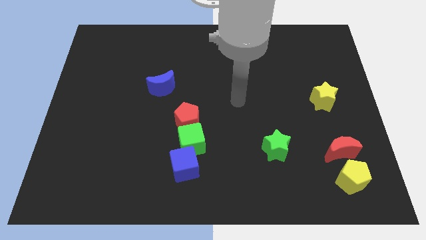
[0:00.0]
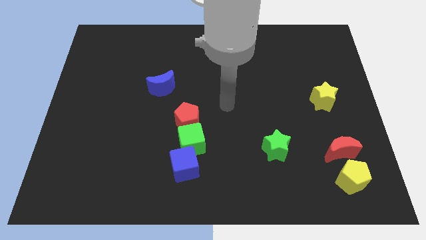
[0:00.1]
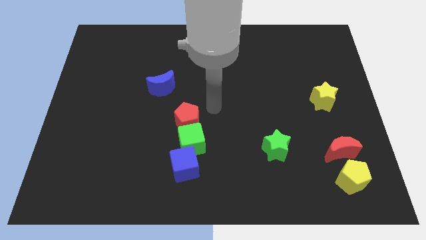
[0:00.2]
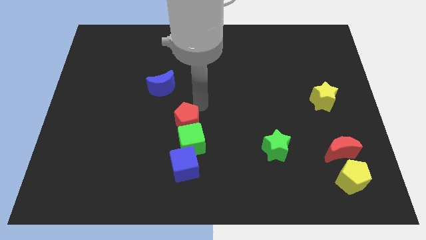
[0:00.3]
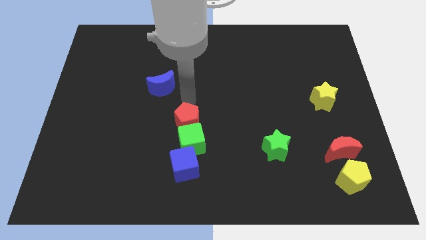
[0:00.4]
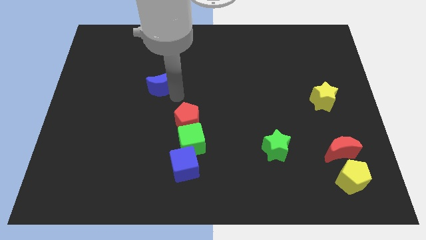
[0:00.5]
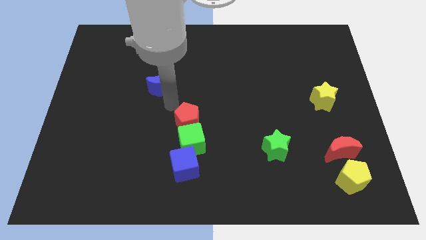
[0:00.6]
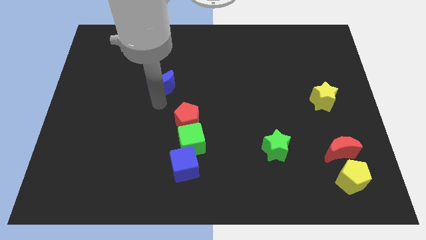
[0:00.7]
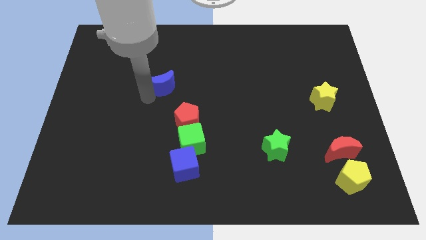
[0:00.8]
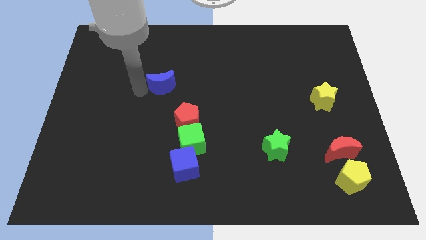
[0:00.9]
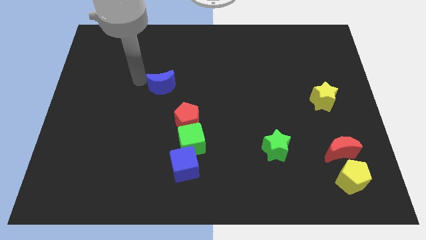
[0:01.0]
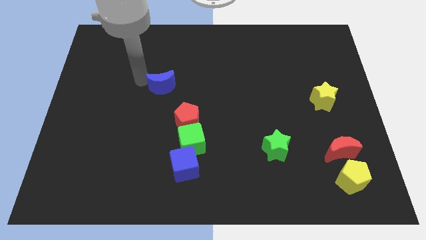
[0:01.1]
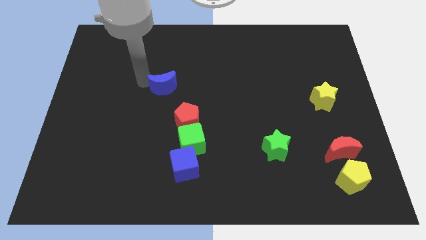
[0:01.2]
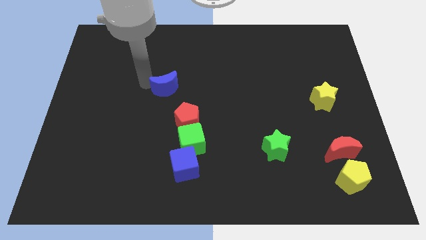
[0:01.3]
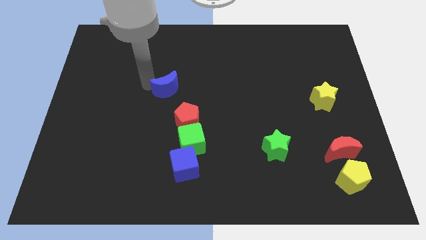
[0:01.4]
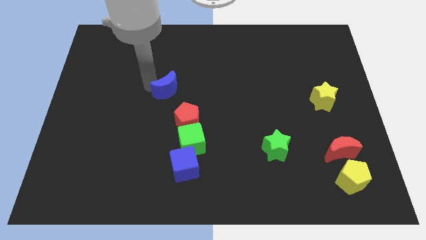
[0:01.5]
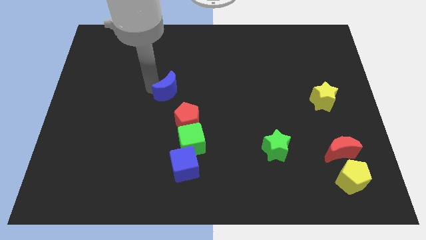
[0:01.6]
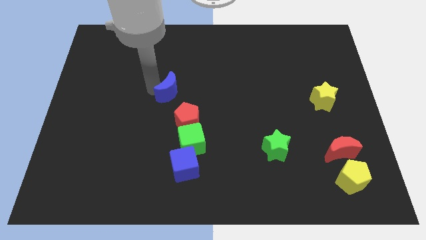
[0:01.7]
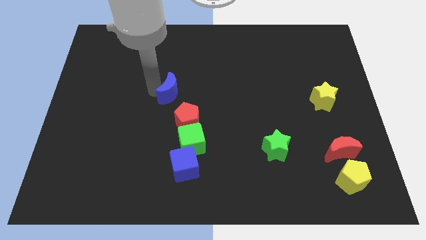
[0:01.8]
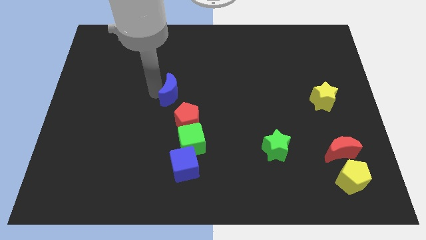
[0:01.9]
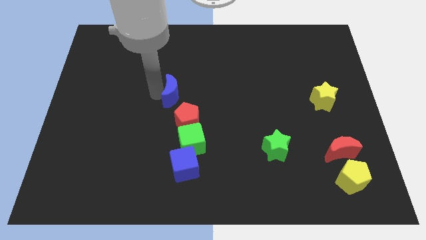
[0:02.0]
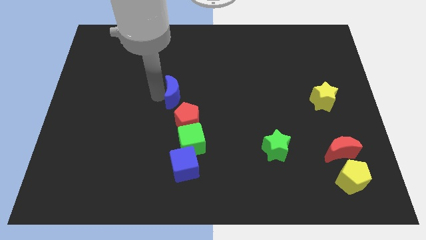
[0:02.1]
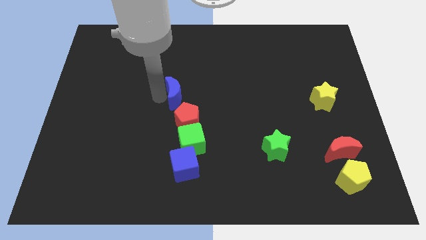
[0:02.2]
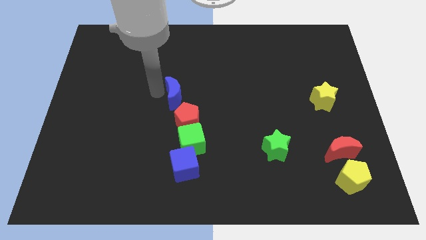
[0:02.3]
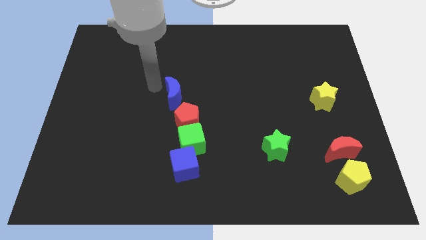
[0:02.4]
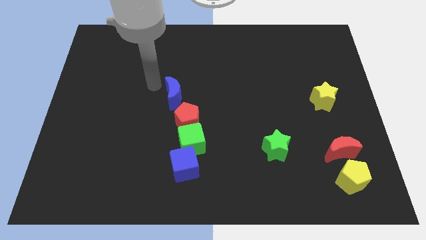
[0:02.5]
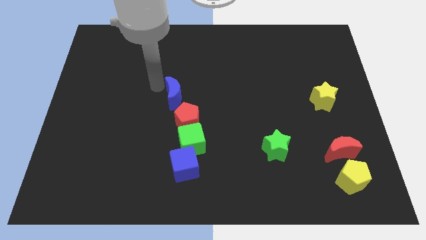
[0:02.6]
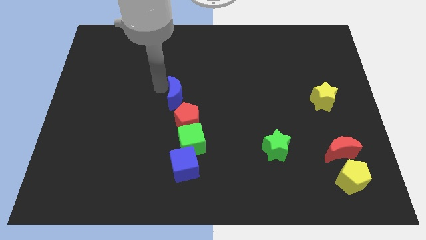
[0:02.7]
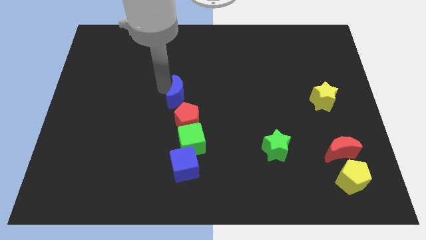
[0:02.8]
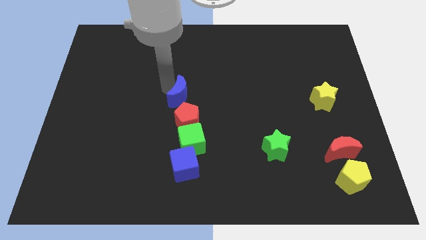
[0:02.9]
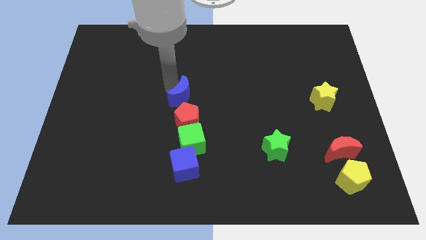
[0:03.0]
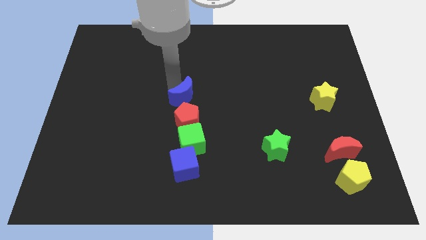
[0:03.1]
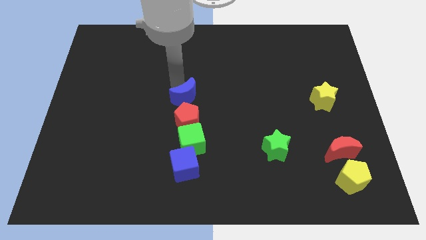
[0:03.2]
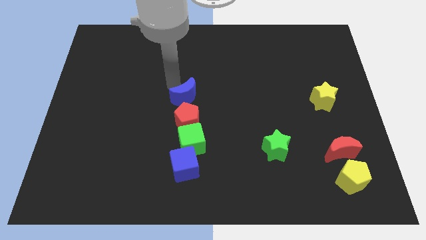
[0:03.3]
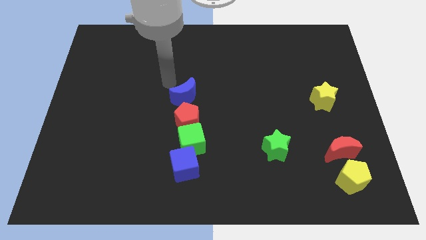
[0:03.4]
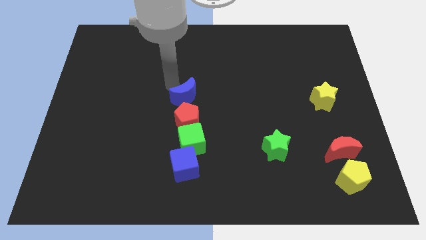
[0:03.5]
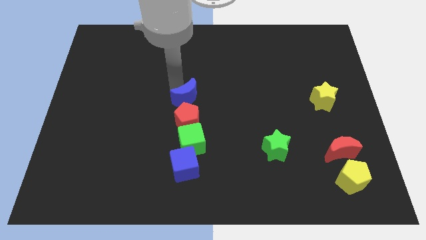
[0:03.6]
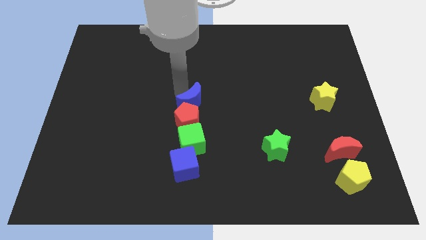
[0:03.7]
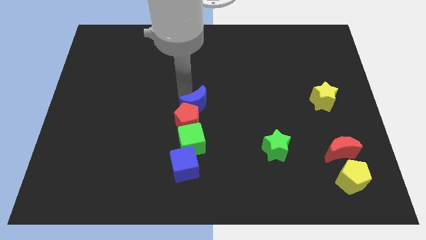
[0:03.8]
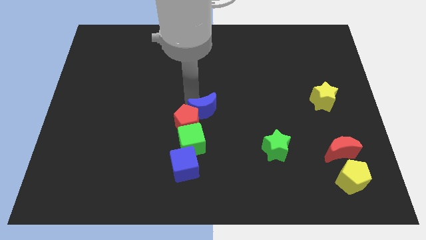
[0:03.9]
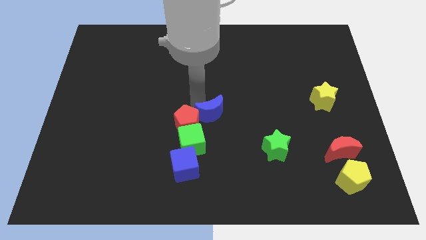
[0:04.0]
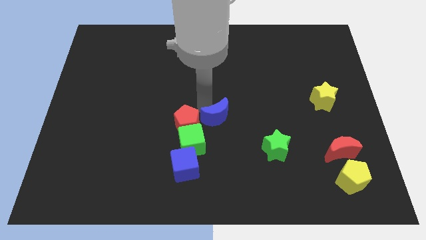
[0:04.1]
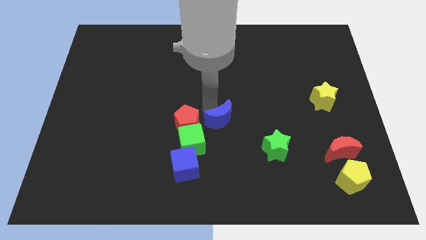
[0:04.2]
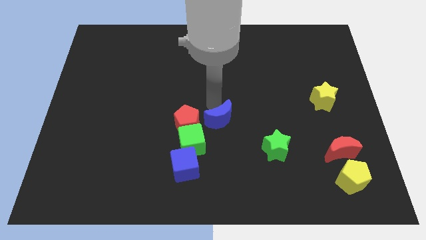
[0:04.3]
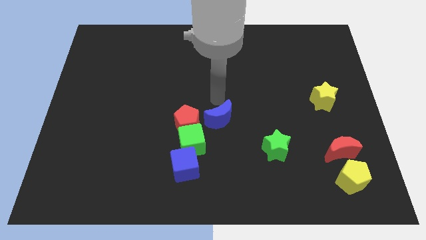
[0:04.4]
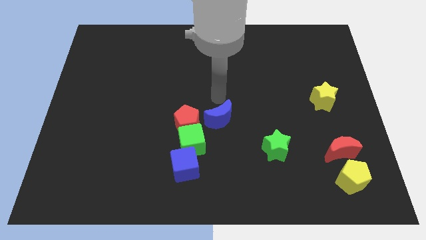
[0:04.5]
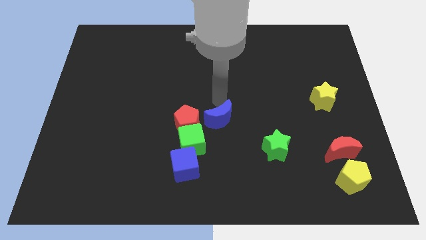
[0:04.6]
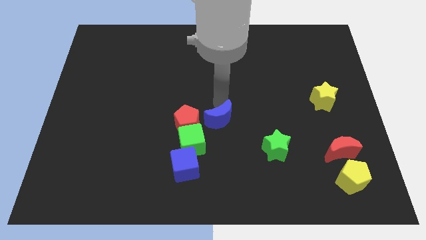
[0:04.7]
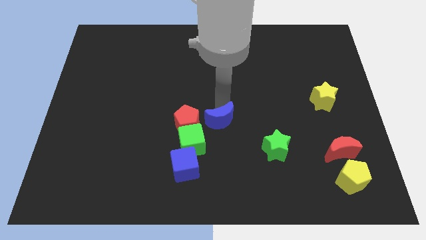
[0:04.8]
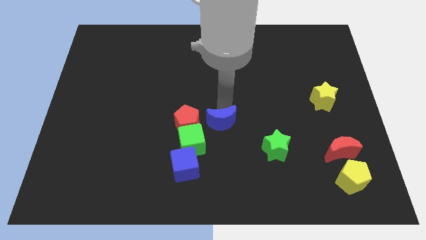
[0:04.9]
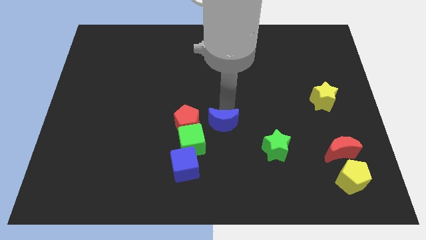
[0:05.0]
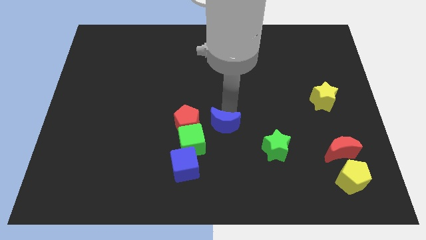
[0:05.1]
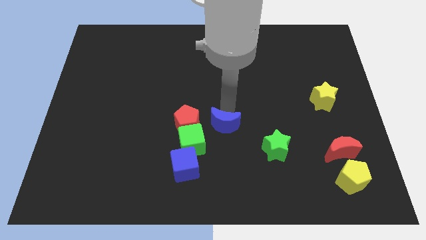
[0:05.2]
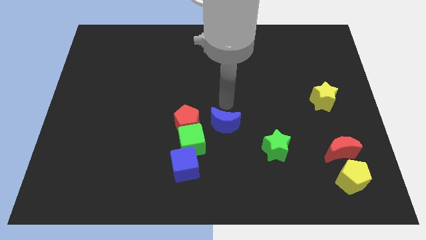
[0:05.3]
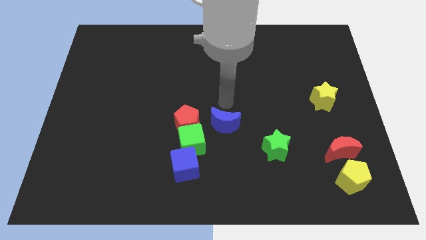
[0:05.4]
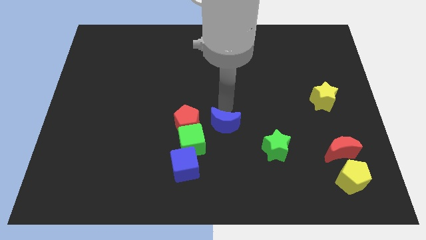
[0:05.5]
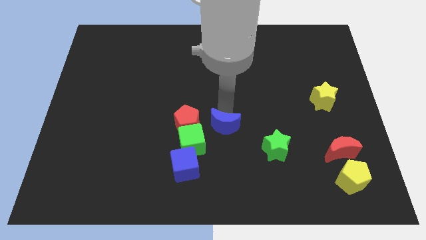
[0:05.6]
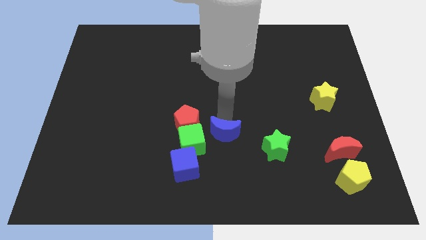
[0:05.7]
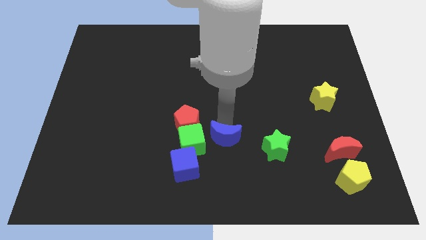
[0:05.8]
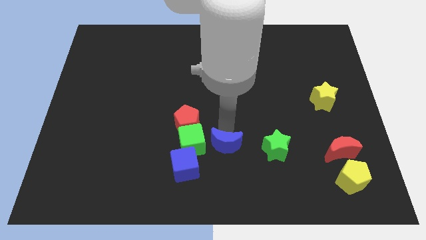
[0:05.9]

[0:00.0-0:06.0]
slide the blue moon to the bottom right side of the green cube

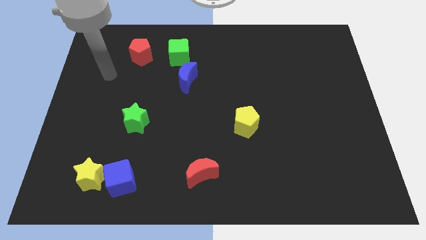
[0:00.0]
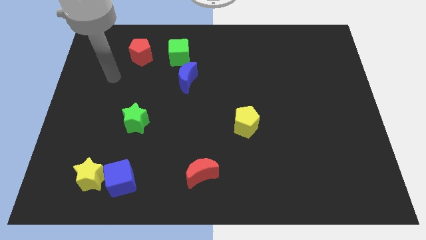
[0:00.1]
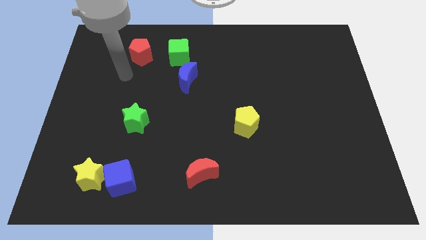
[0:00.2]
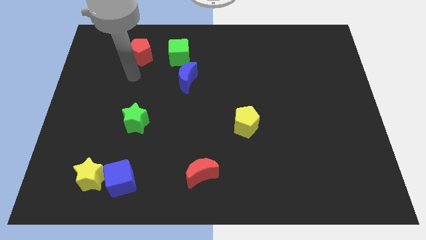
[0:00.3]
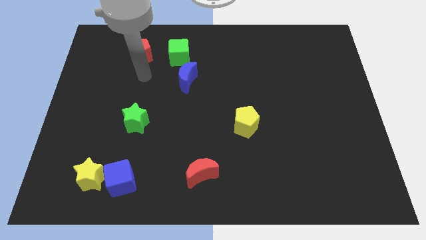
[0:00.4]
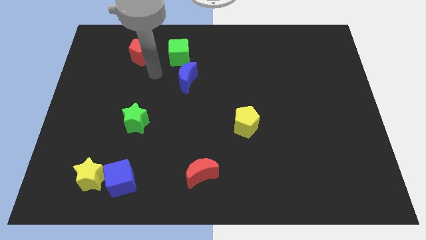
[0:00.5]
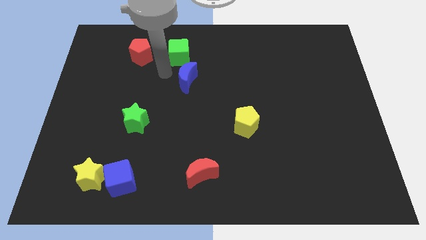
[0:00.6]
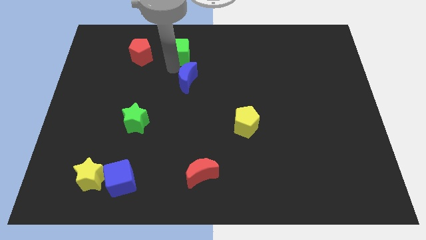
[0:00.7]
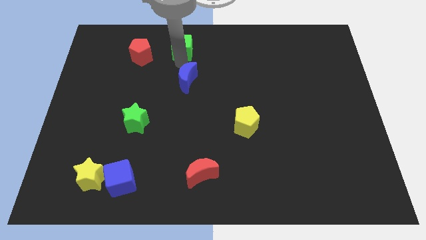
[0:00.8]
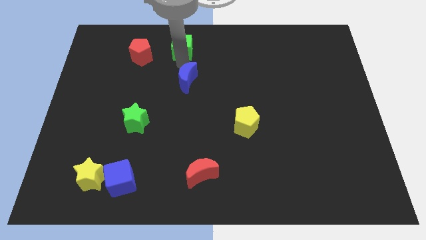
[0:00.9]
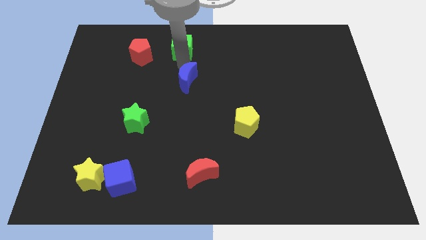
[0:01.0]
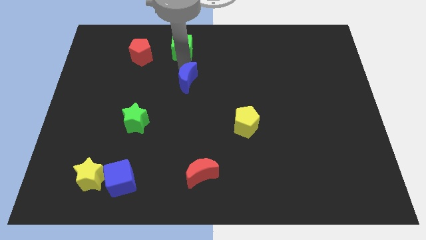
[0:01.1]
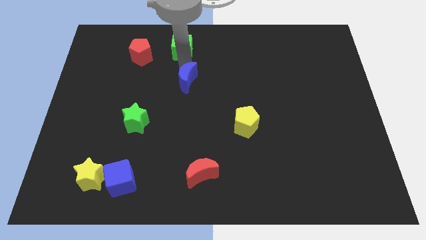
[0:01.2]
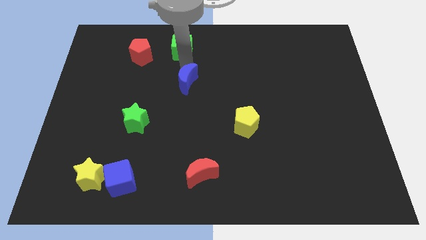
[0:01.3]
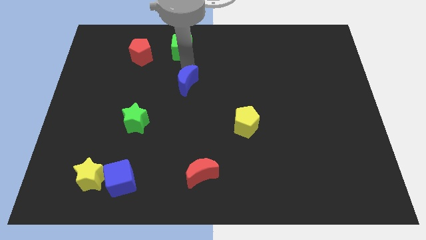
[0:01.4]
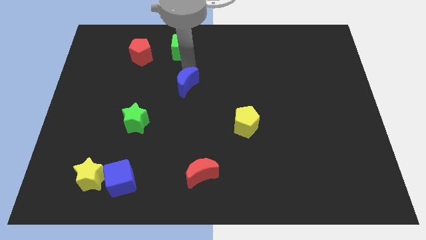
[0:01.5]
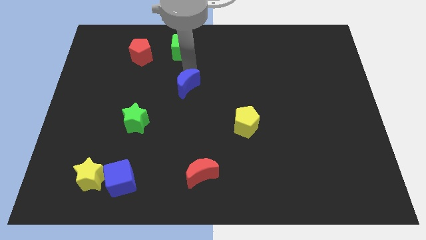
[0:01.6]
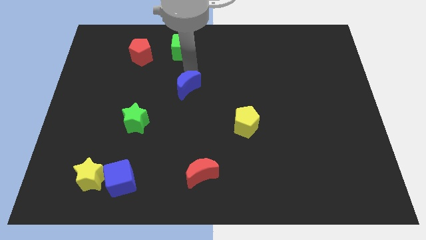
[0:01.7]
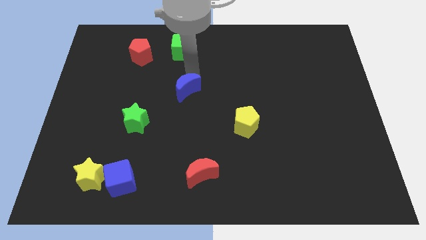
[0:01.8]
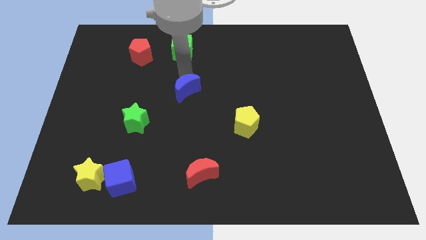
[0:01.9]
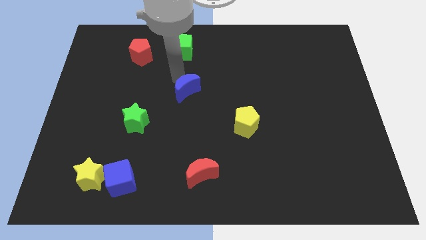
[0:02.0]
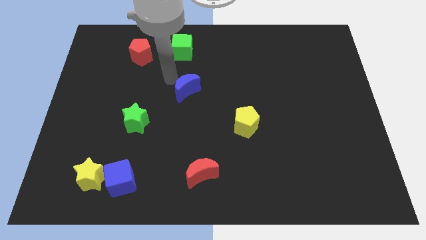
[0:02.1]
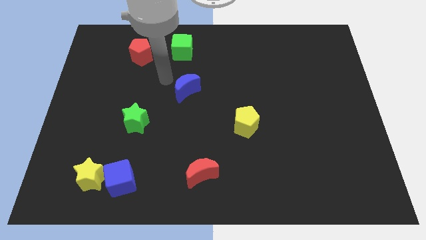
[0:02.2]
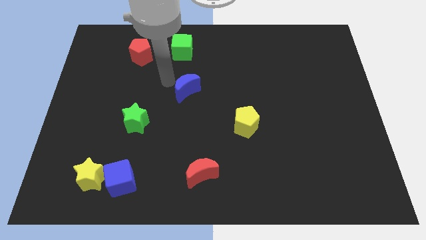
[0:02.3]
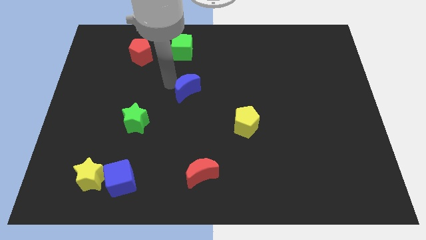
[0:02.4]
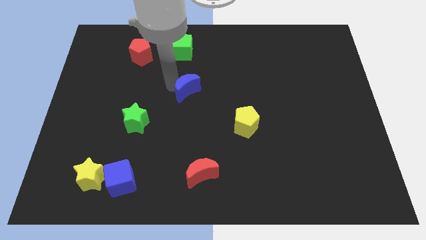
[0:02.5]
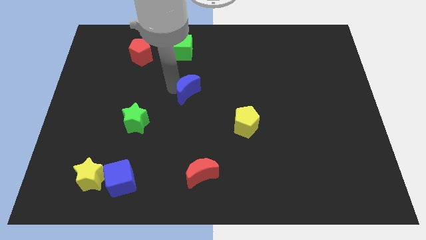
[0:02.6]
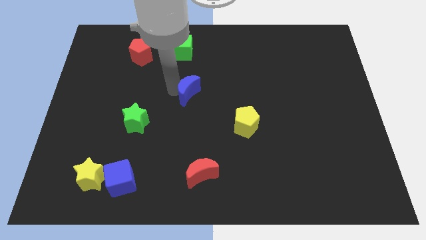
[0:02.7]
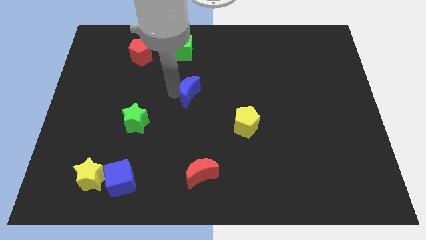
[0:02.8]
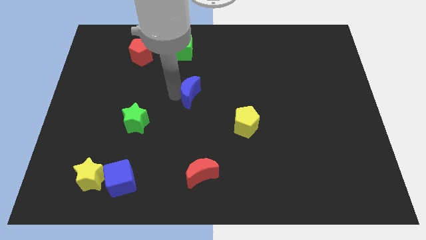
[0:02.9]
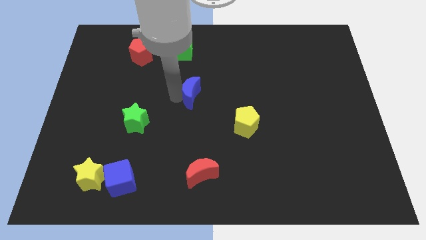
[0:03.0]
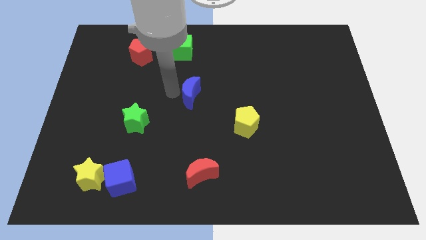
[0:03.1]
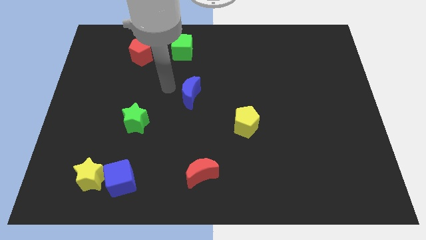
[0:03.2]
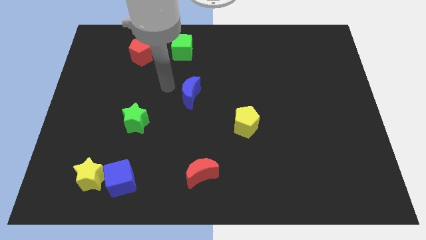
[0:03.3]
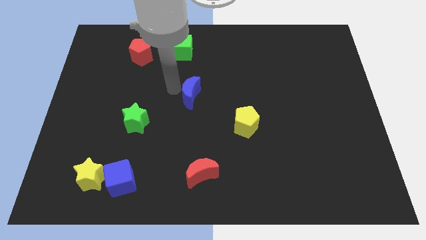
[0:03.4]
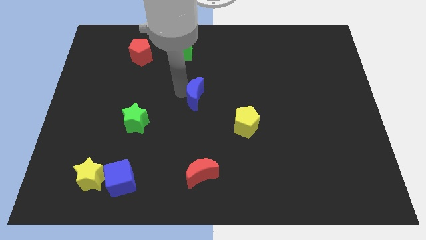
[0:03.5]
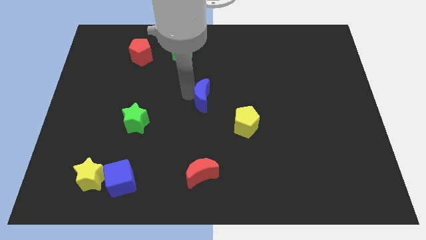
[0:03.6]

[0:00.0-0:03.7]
move the blue moon to the top left of the yellow pentagon
